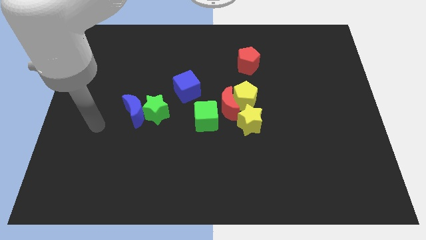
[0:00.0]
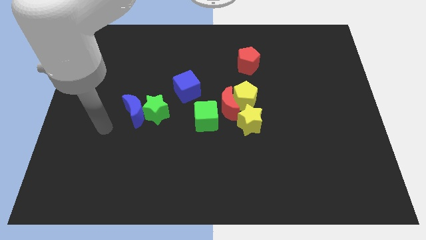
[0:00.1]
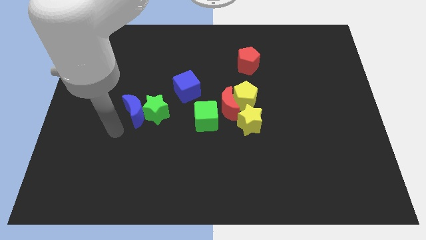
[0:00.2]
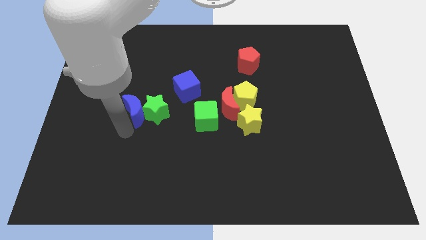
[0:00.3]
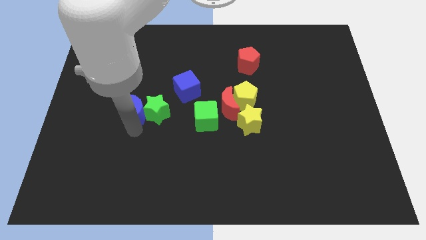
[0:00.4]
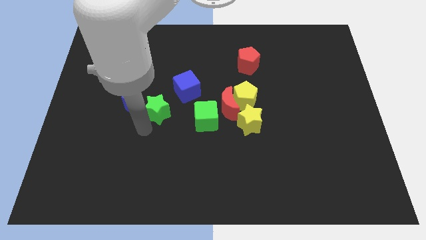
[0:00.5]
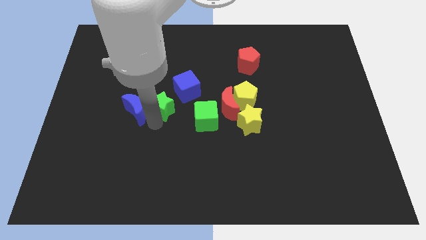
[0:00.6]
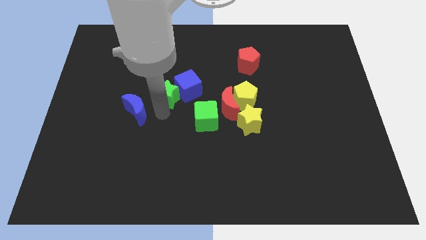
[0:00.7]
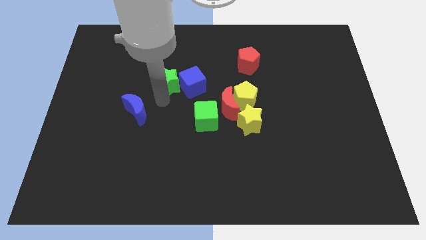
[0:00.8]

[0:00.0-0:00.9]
separate the blue moon from the green star

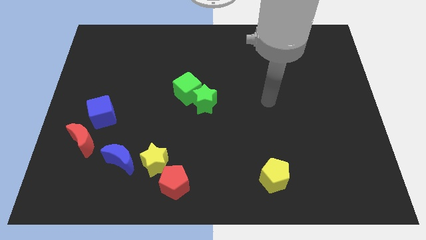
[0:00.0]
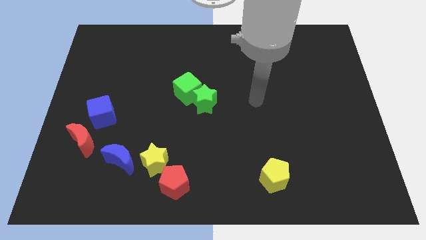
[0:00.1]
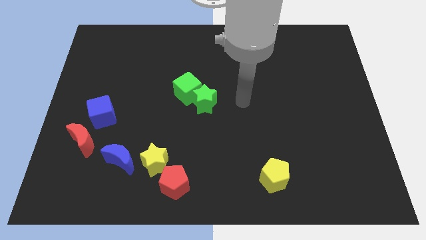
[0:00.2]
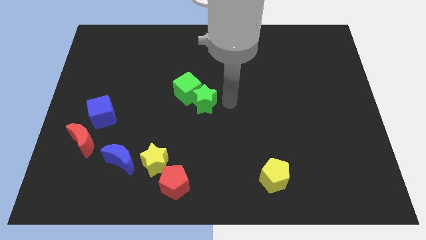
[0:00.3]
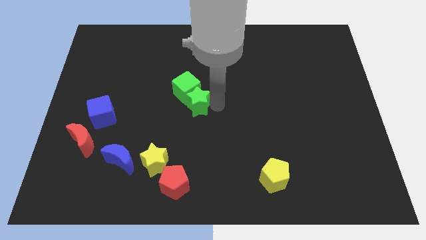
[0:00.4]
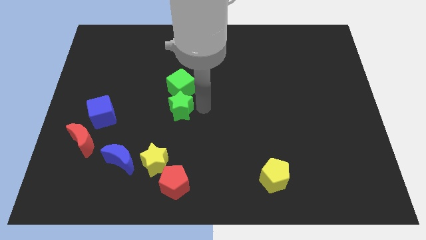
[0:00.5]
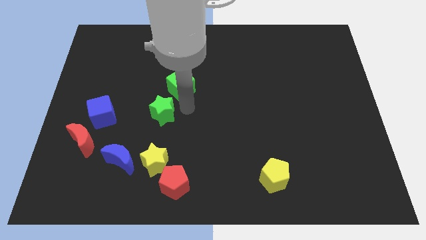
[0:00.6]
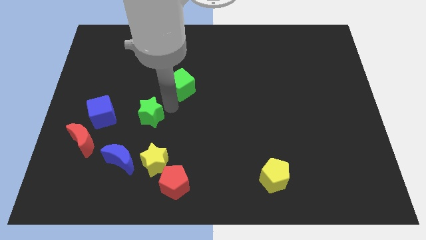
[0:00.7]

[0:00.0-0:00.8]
pull the green cube apart from the green star

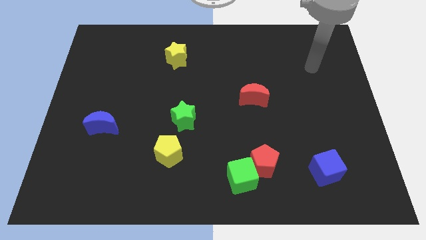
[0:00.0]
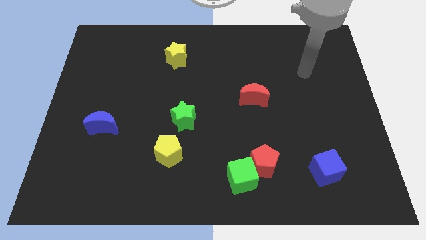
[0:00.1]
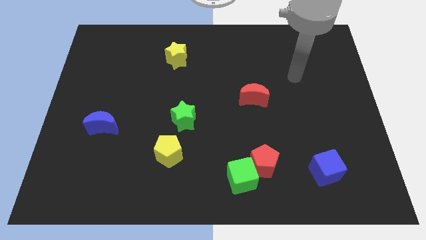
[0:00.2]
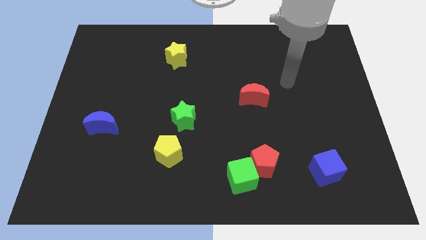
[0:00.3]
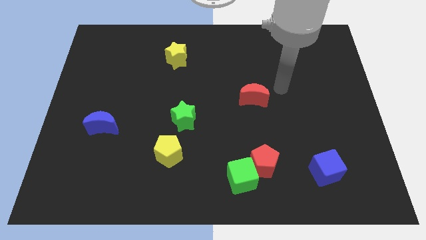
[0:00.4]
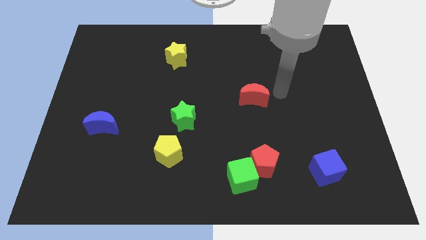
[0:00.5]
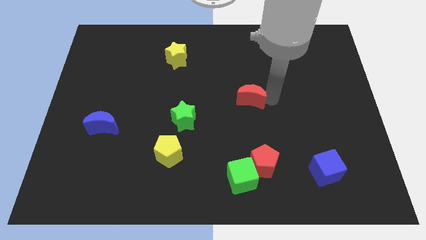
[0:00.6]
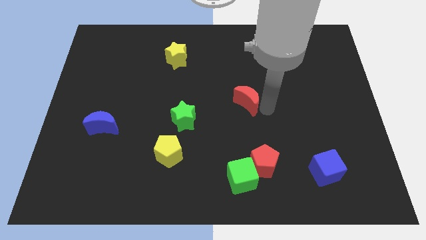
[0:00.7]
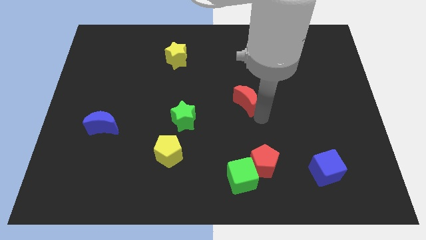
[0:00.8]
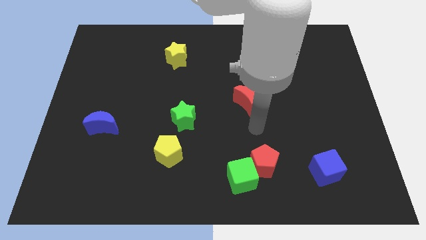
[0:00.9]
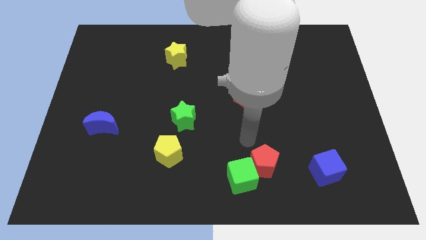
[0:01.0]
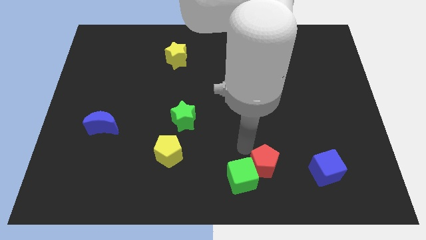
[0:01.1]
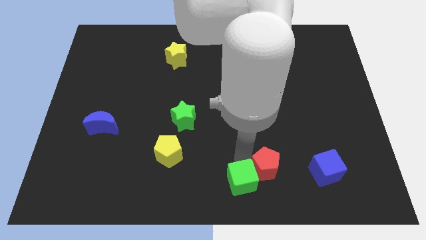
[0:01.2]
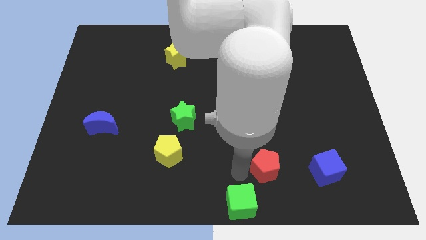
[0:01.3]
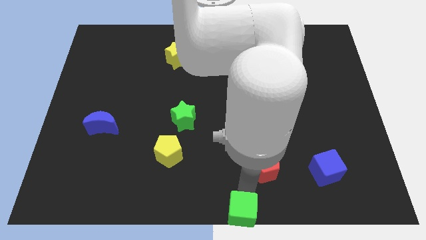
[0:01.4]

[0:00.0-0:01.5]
separate the red pentagon from the green cube

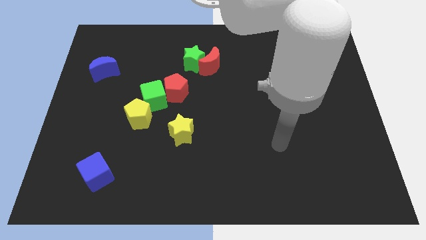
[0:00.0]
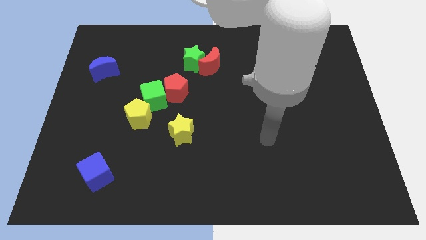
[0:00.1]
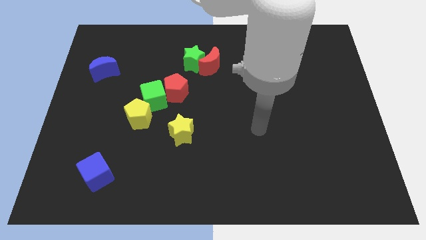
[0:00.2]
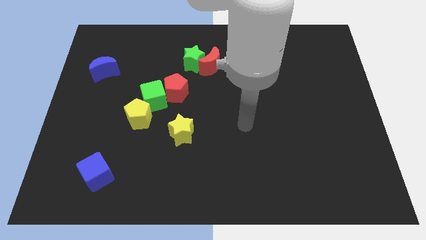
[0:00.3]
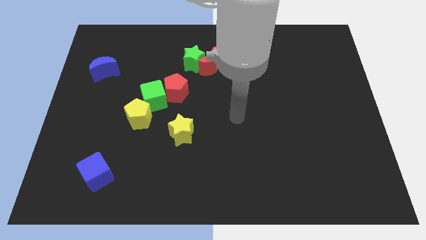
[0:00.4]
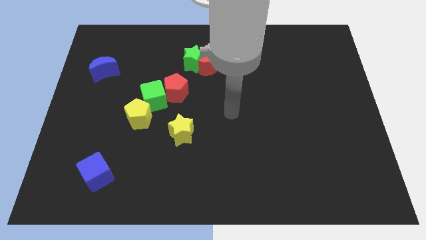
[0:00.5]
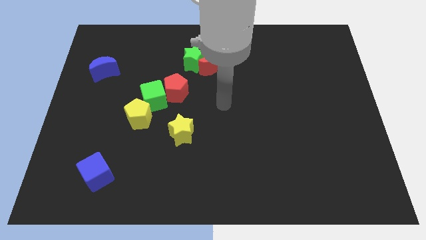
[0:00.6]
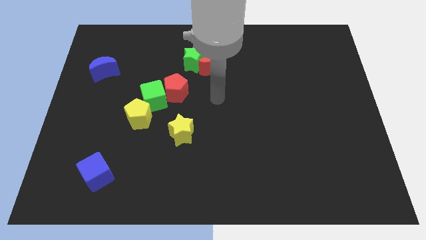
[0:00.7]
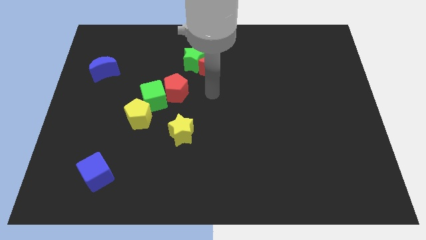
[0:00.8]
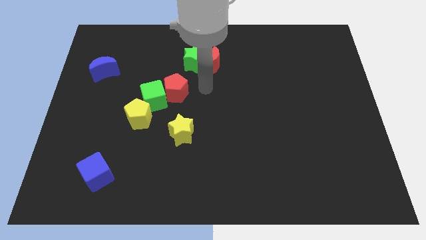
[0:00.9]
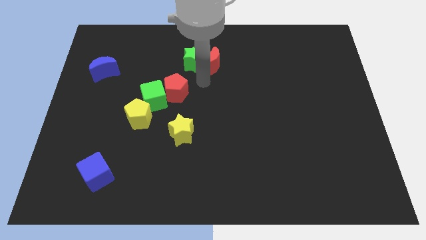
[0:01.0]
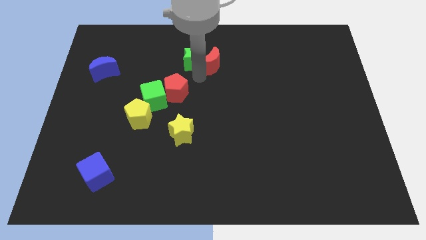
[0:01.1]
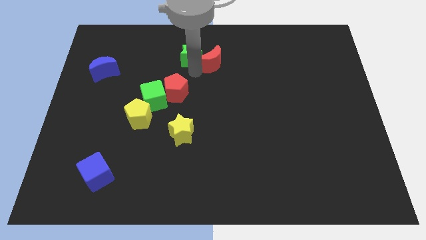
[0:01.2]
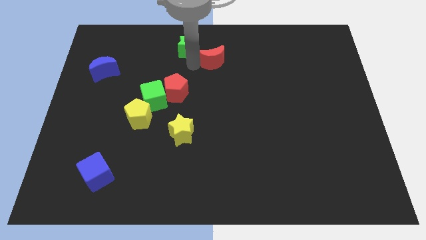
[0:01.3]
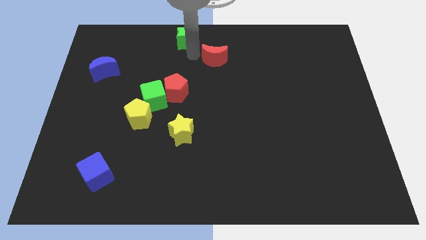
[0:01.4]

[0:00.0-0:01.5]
move the red moon away from the green star

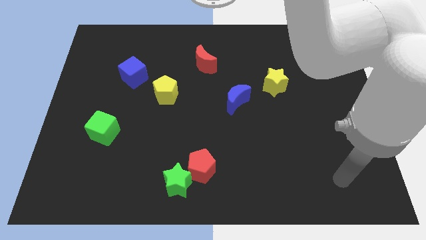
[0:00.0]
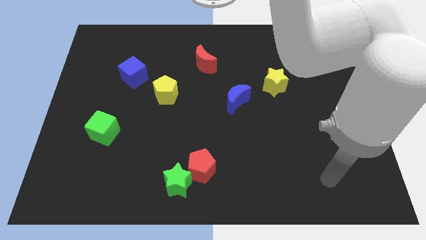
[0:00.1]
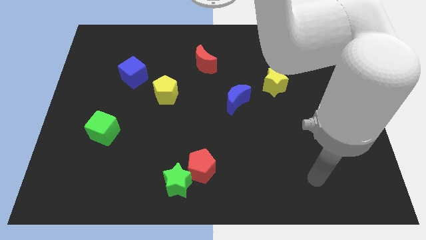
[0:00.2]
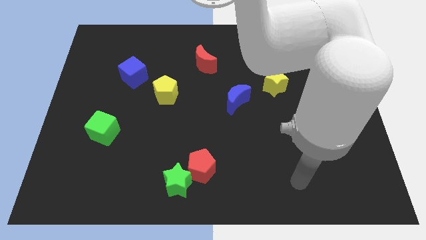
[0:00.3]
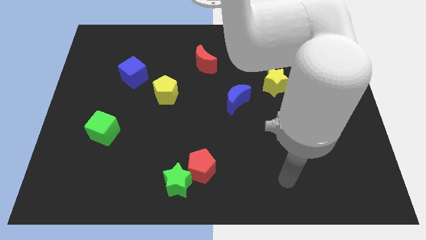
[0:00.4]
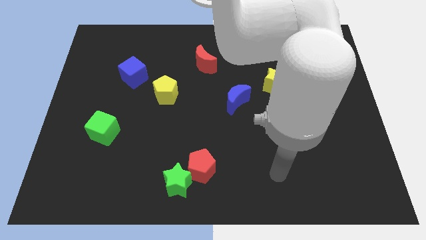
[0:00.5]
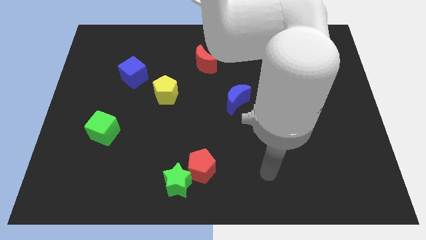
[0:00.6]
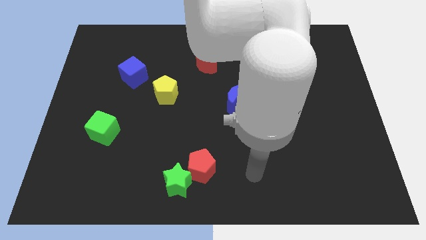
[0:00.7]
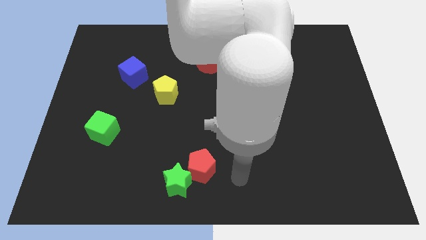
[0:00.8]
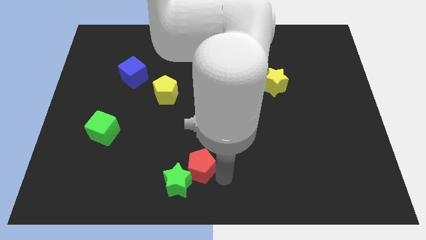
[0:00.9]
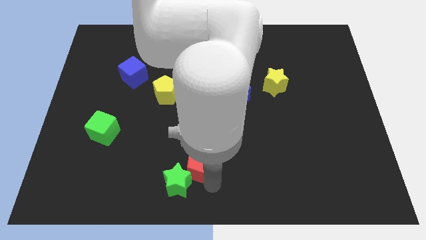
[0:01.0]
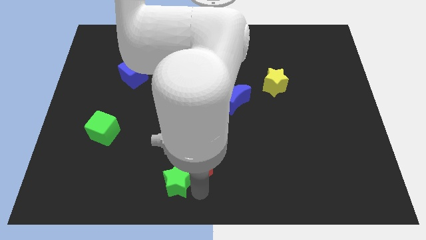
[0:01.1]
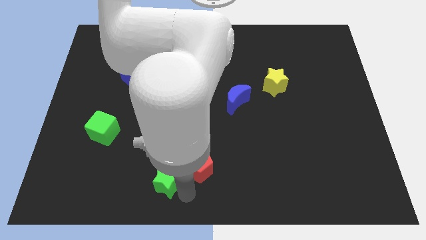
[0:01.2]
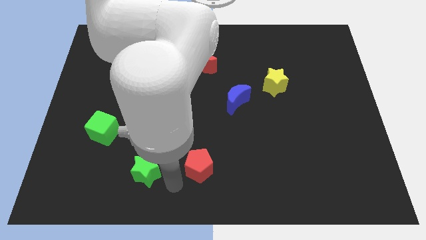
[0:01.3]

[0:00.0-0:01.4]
move the red pentagon away from the green star

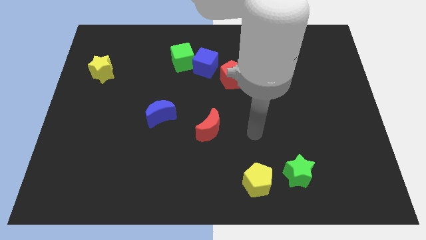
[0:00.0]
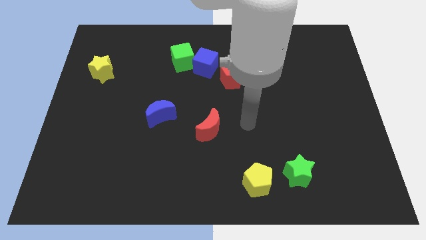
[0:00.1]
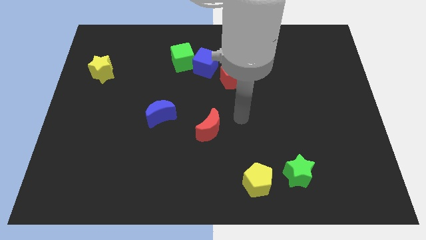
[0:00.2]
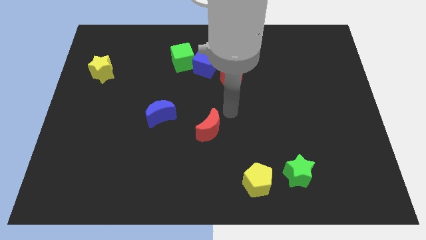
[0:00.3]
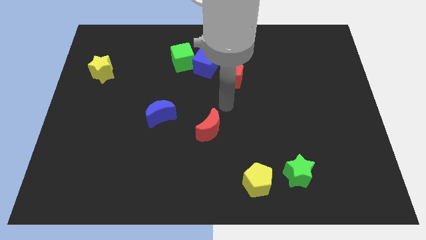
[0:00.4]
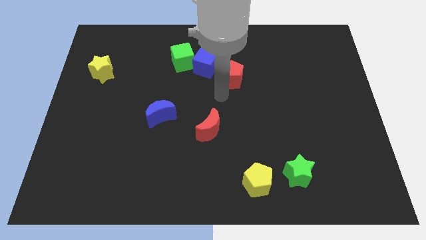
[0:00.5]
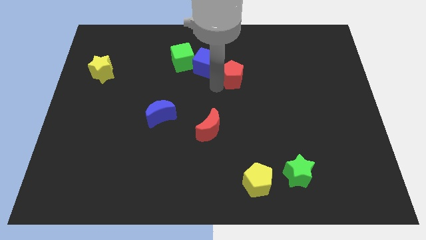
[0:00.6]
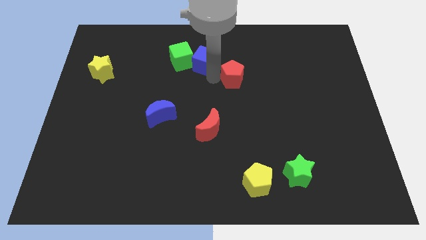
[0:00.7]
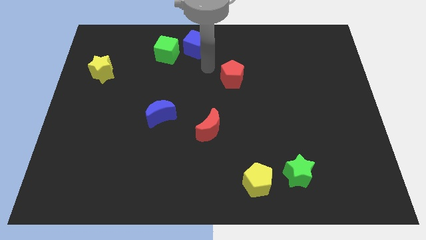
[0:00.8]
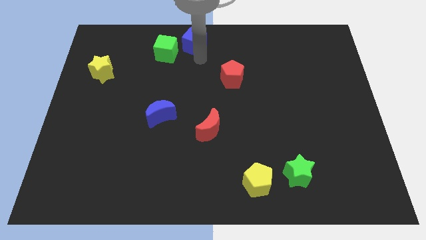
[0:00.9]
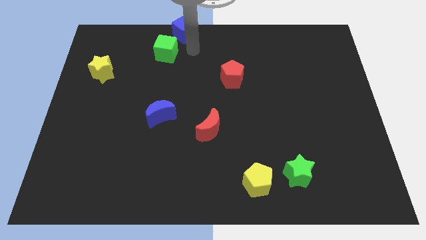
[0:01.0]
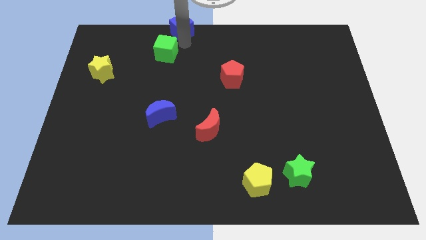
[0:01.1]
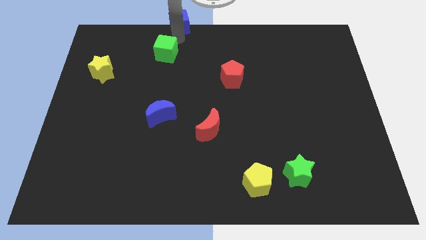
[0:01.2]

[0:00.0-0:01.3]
separate the green cube from the blue cube

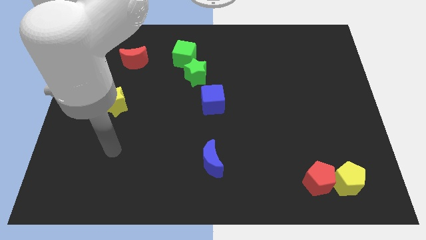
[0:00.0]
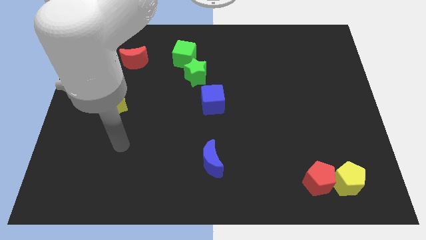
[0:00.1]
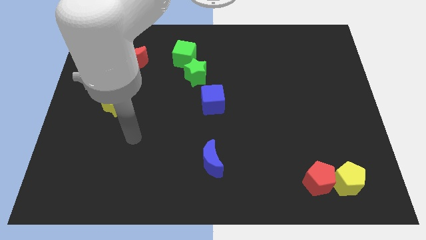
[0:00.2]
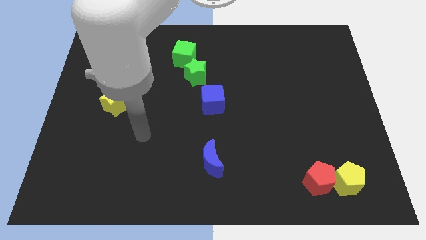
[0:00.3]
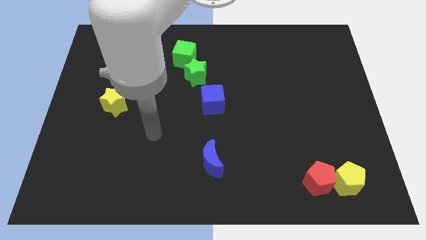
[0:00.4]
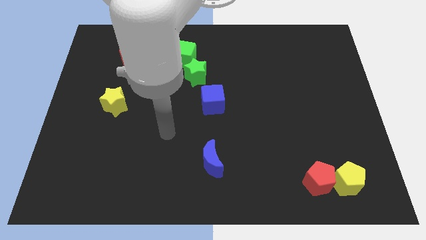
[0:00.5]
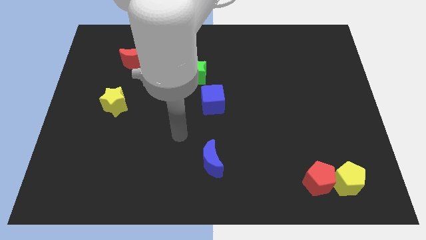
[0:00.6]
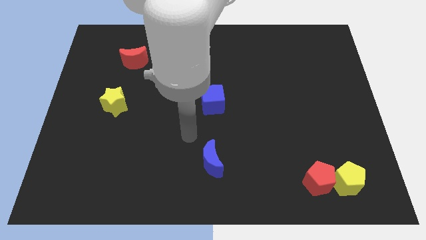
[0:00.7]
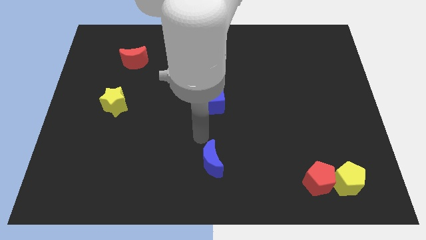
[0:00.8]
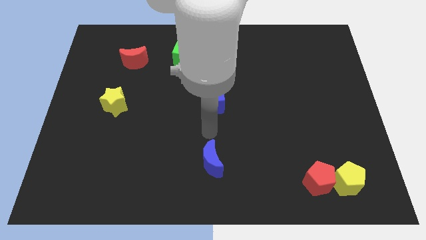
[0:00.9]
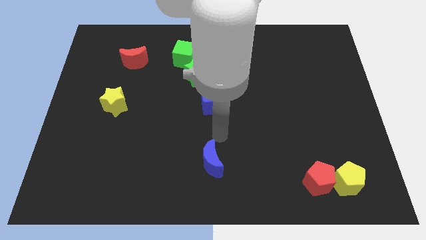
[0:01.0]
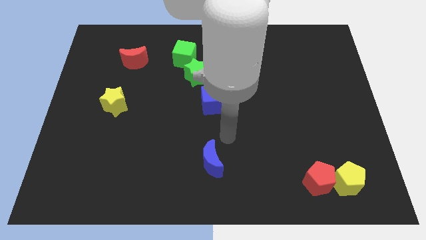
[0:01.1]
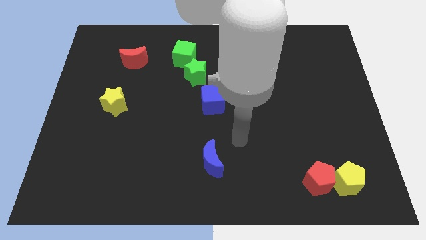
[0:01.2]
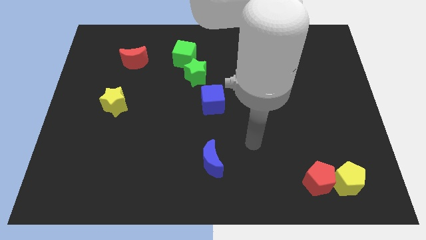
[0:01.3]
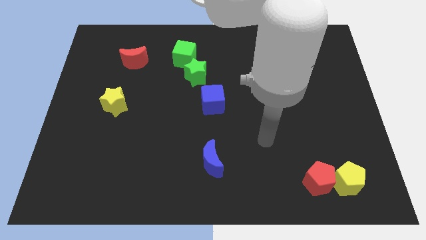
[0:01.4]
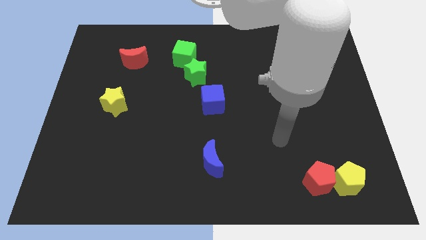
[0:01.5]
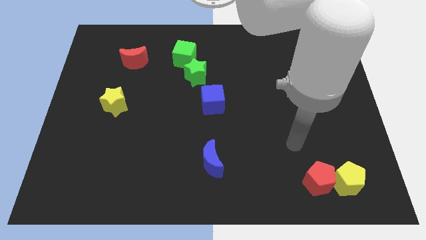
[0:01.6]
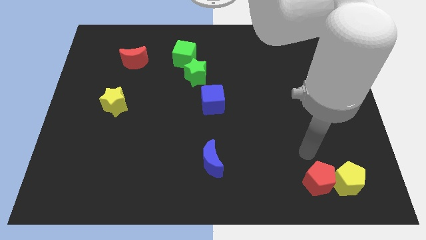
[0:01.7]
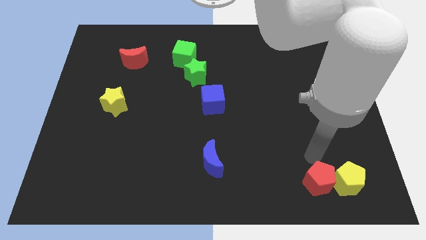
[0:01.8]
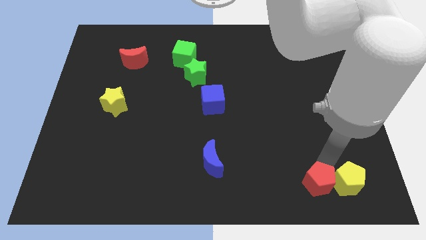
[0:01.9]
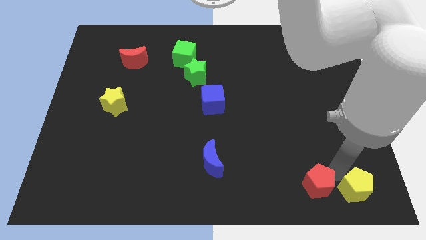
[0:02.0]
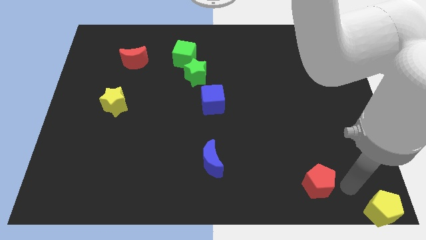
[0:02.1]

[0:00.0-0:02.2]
separate the red pentagon from the yellow pentagon
